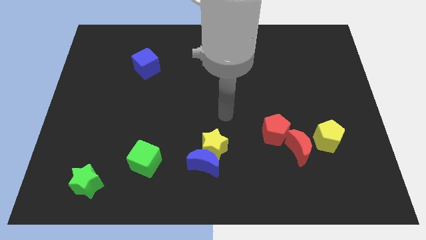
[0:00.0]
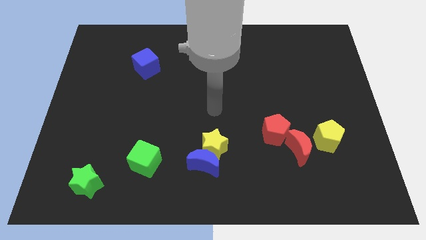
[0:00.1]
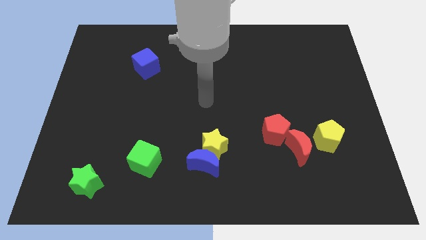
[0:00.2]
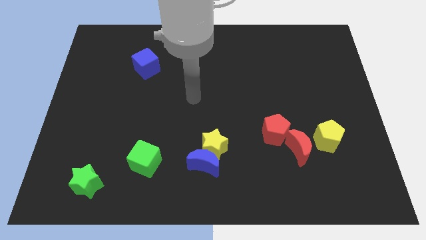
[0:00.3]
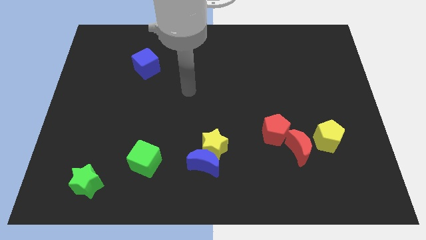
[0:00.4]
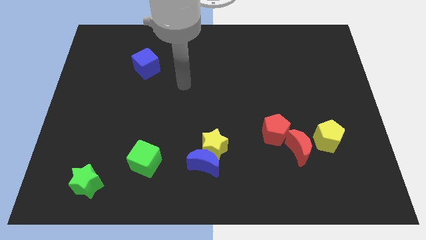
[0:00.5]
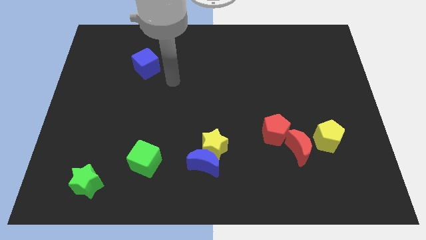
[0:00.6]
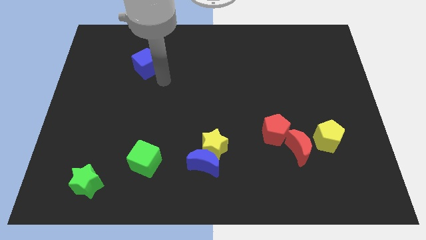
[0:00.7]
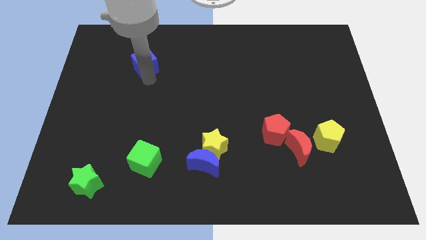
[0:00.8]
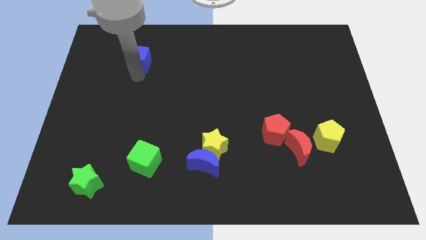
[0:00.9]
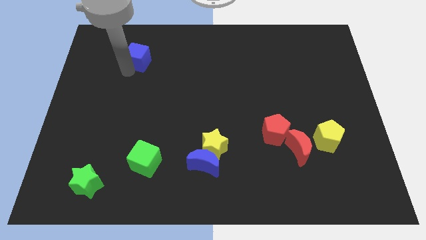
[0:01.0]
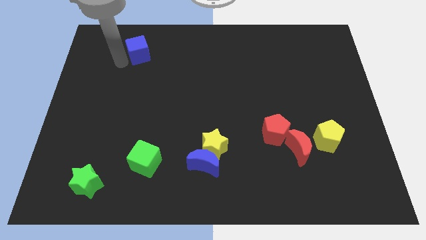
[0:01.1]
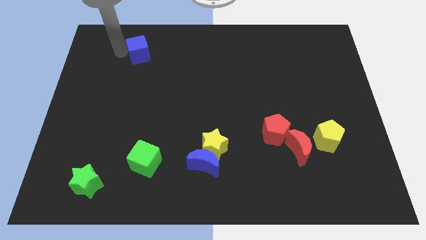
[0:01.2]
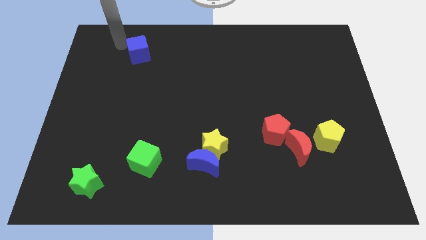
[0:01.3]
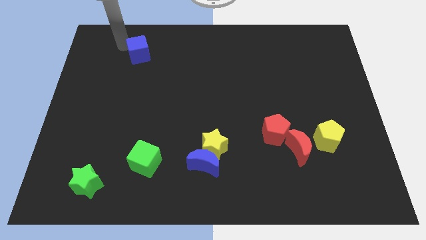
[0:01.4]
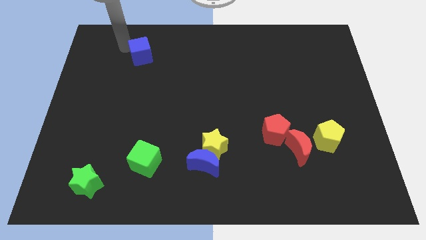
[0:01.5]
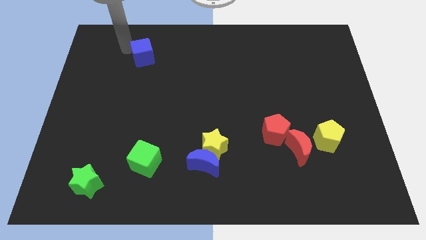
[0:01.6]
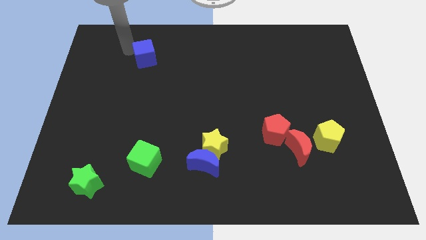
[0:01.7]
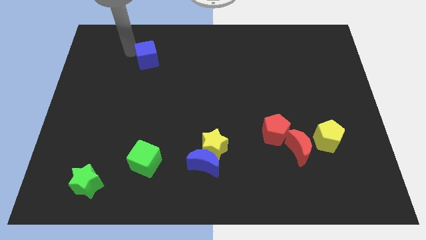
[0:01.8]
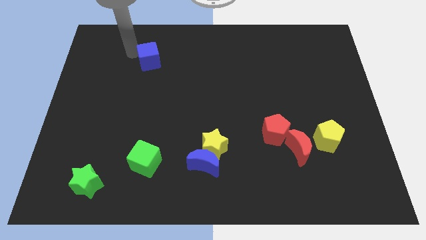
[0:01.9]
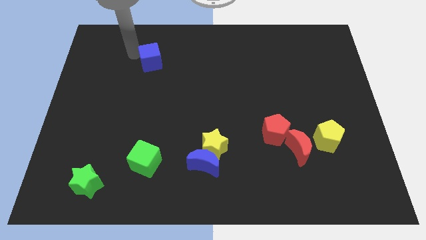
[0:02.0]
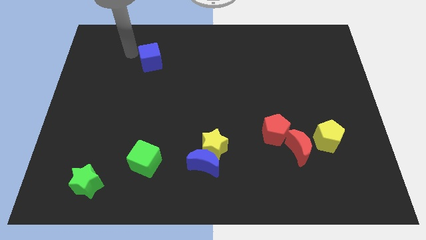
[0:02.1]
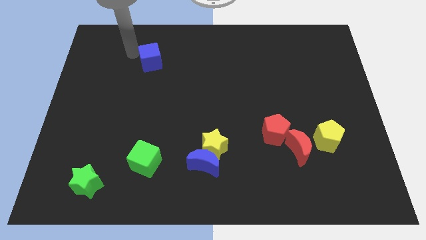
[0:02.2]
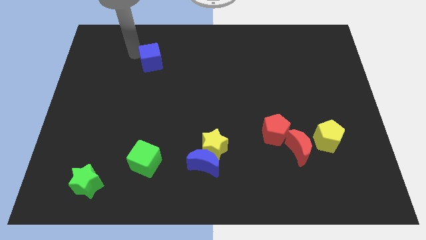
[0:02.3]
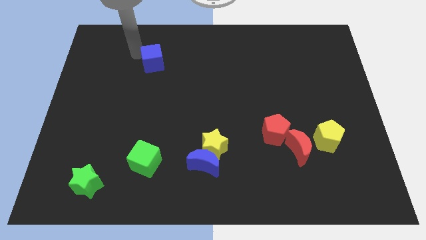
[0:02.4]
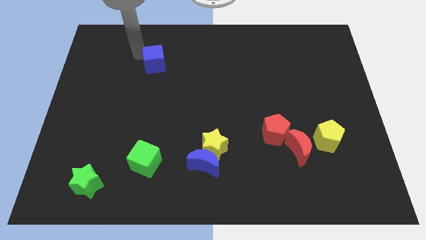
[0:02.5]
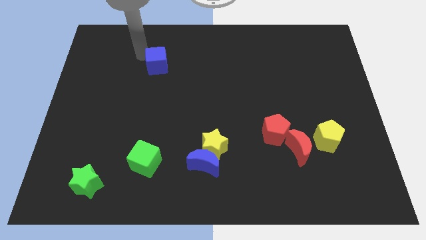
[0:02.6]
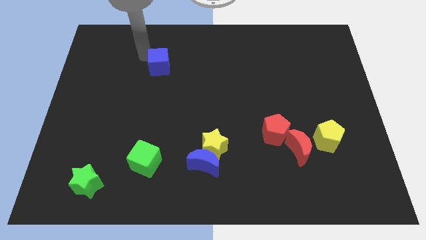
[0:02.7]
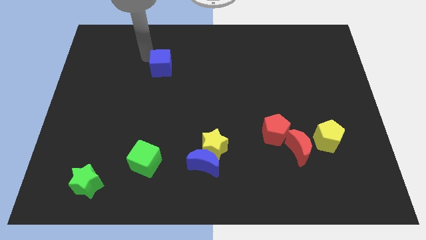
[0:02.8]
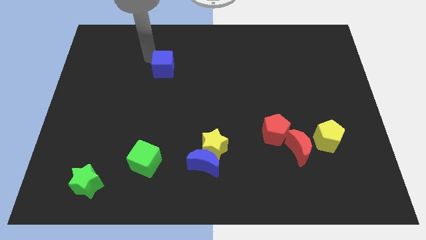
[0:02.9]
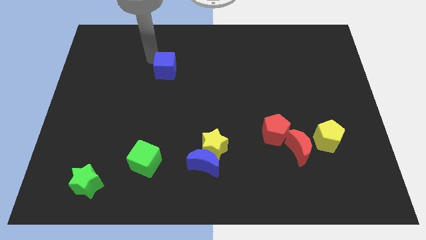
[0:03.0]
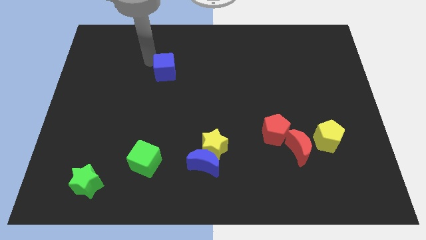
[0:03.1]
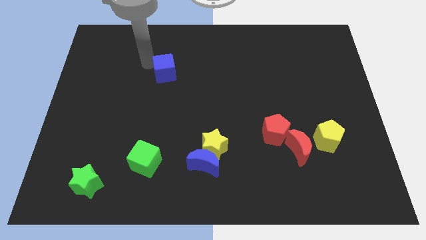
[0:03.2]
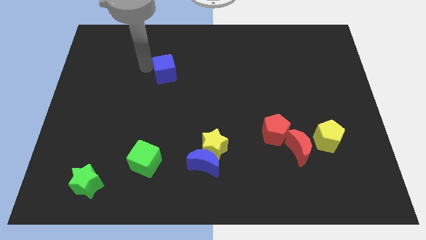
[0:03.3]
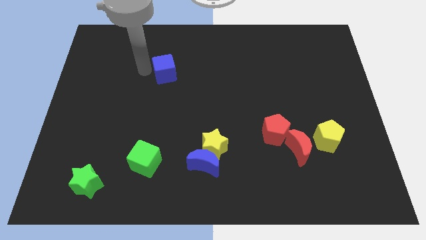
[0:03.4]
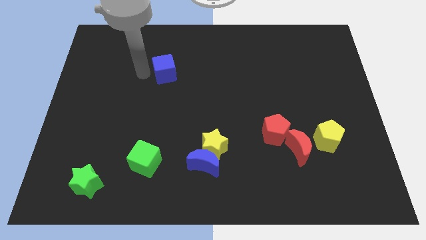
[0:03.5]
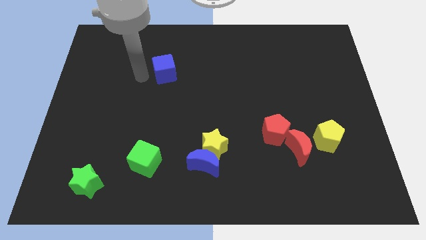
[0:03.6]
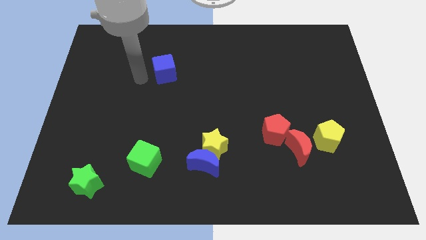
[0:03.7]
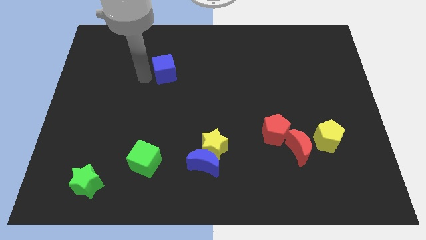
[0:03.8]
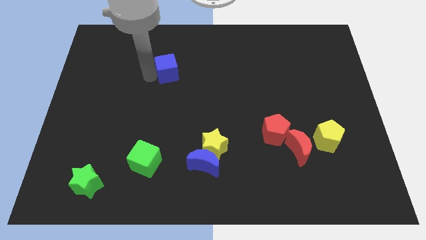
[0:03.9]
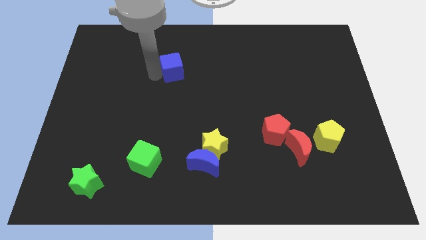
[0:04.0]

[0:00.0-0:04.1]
push the blue cube right a little

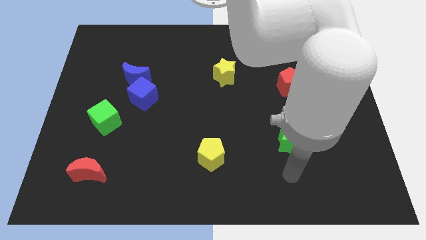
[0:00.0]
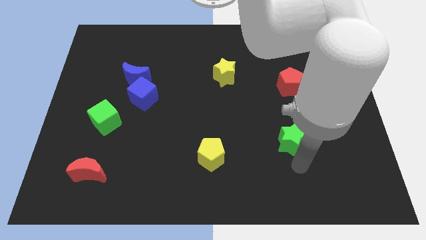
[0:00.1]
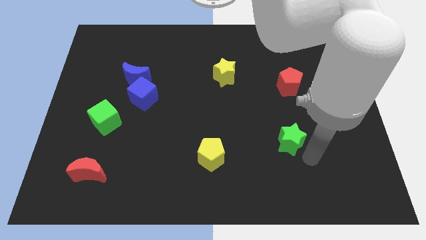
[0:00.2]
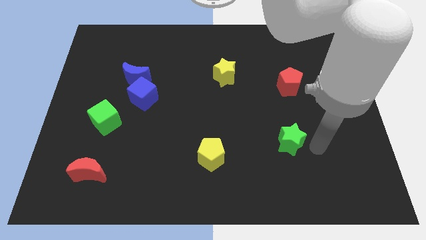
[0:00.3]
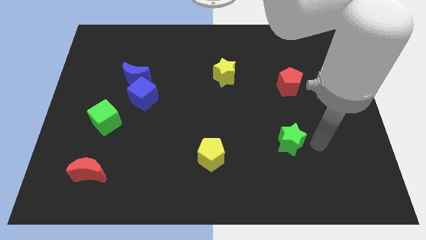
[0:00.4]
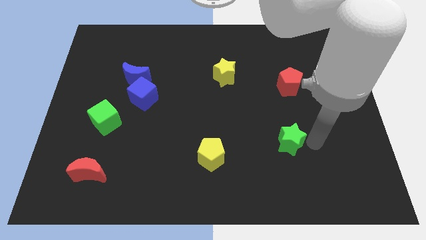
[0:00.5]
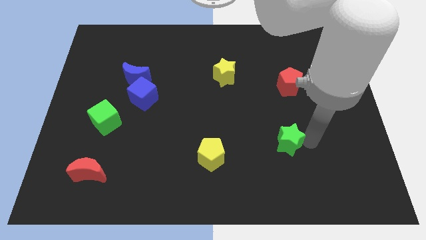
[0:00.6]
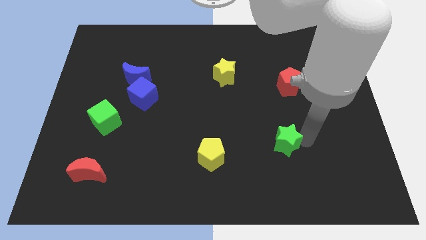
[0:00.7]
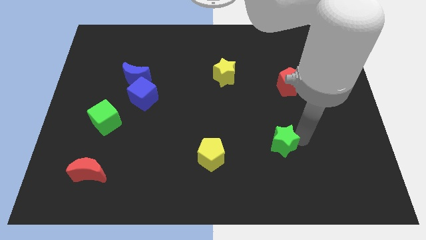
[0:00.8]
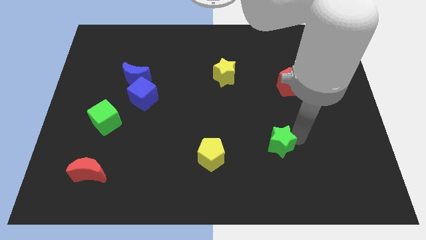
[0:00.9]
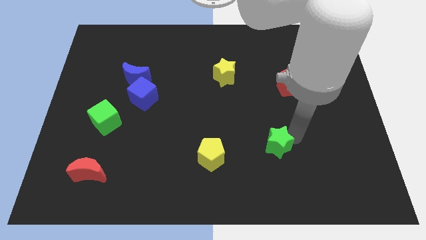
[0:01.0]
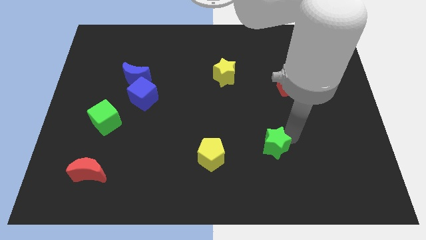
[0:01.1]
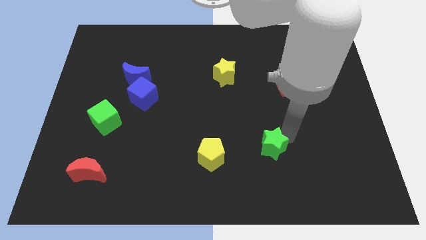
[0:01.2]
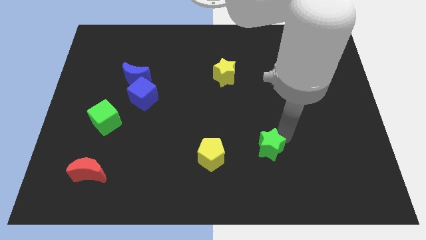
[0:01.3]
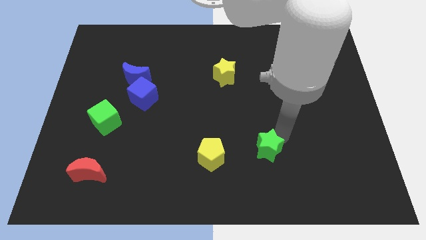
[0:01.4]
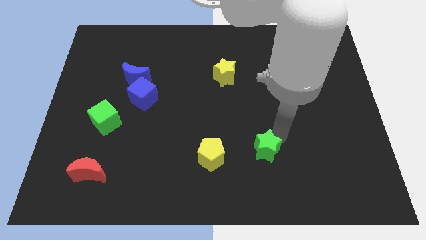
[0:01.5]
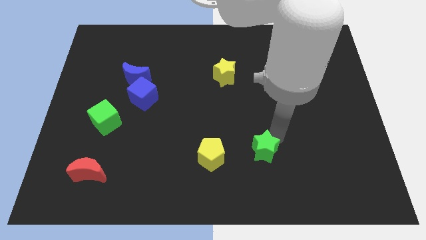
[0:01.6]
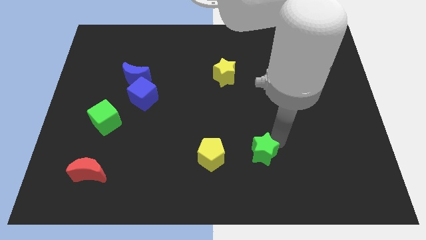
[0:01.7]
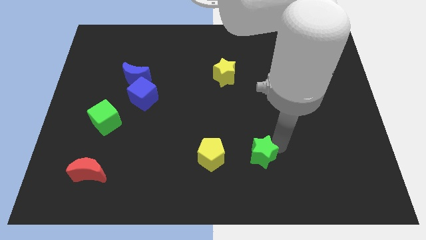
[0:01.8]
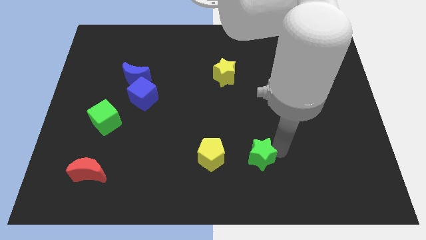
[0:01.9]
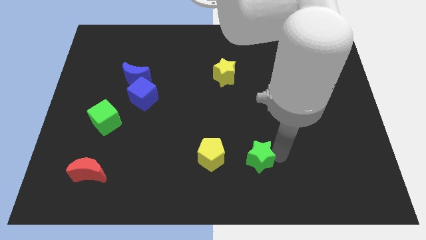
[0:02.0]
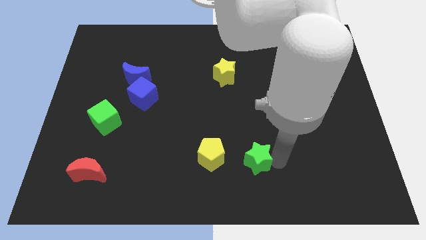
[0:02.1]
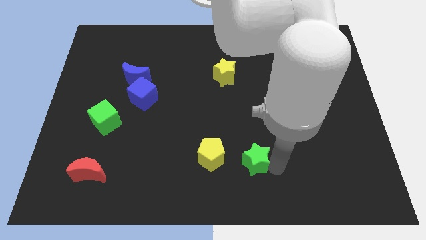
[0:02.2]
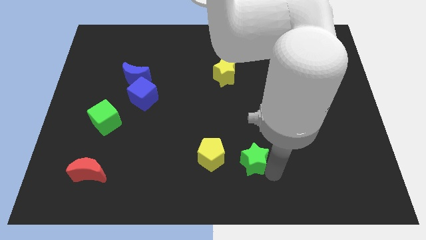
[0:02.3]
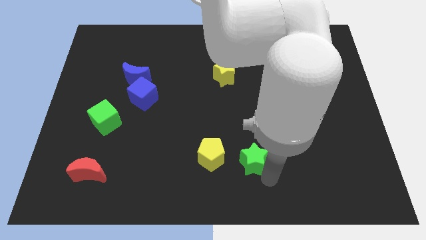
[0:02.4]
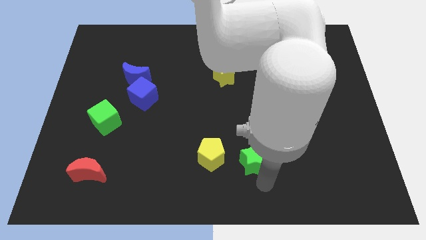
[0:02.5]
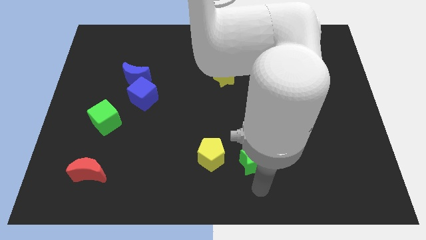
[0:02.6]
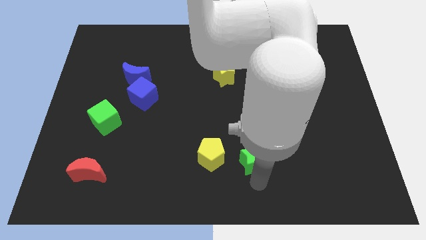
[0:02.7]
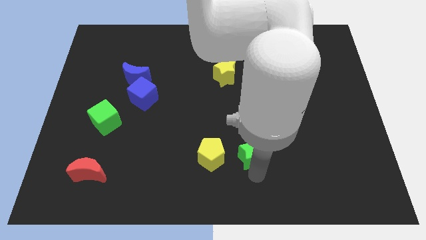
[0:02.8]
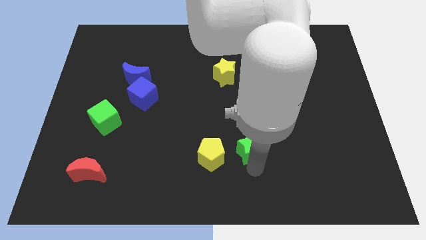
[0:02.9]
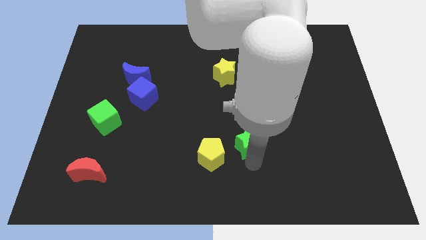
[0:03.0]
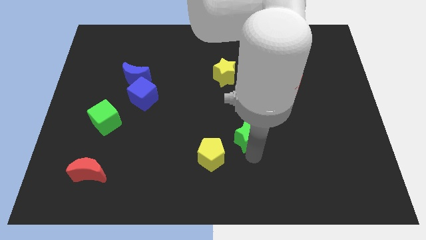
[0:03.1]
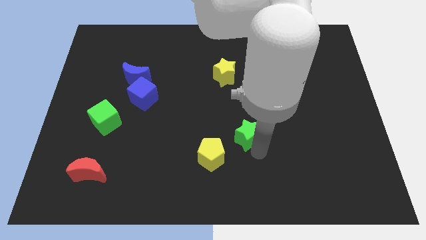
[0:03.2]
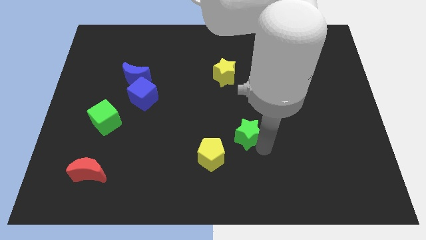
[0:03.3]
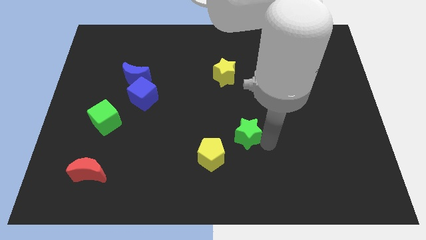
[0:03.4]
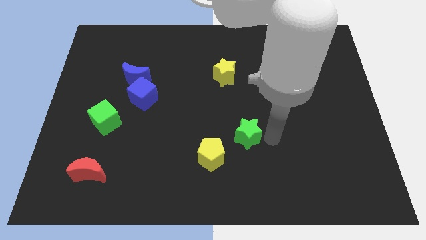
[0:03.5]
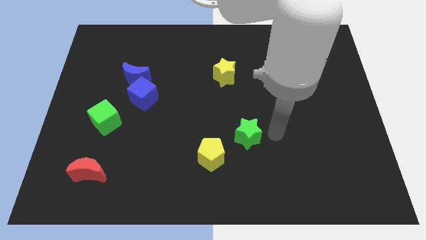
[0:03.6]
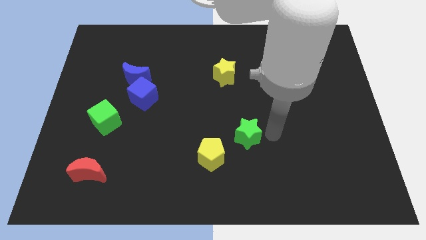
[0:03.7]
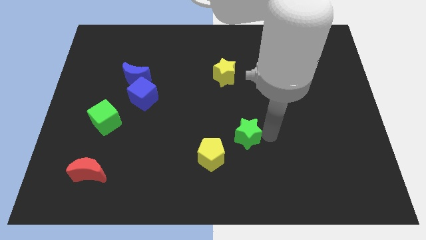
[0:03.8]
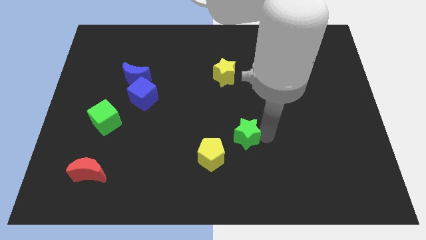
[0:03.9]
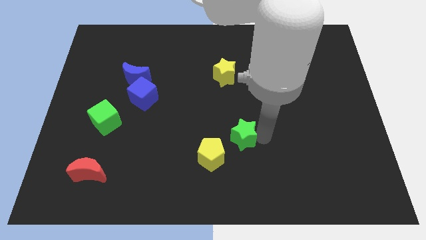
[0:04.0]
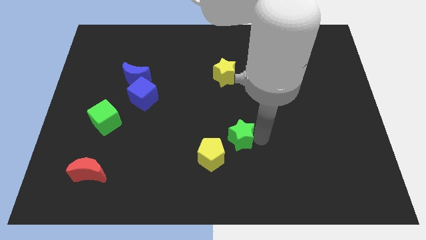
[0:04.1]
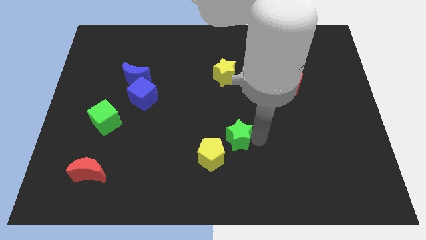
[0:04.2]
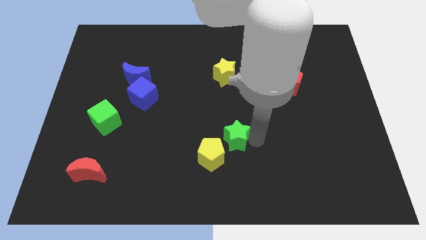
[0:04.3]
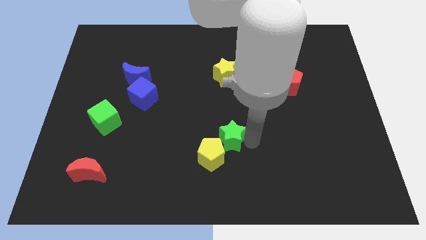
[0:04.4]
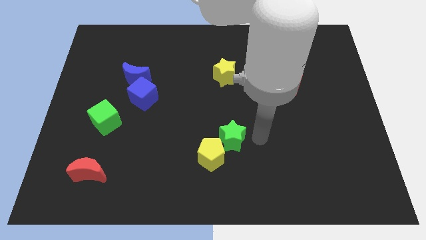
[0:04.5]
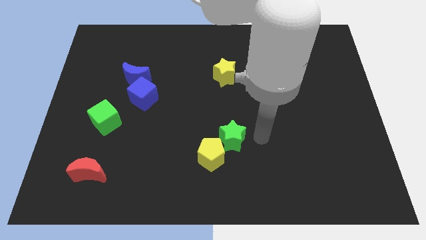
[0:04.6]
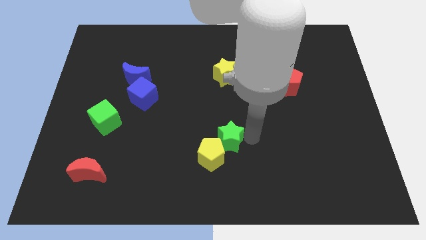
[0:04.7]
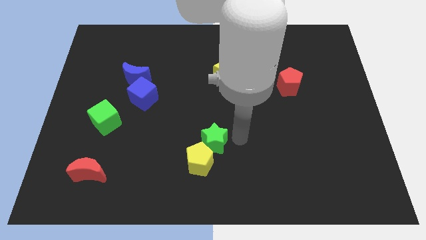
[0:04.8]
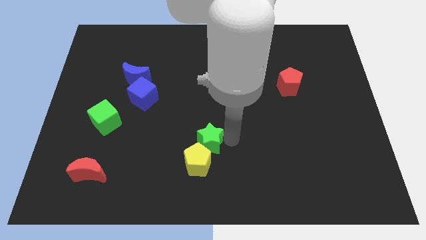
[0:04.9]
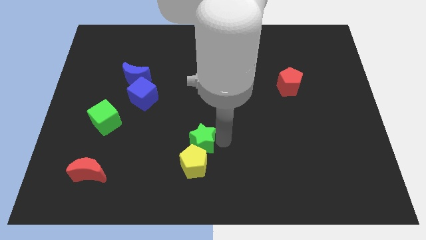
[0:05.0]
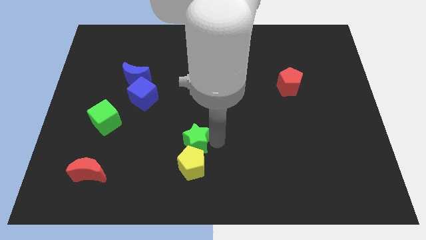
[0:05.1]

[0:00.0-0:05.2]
push the green star to the left
